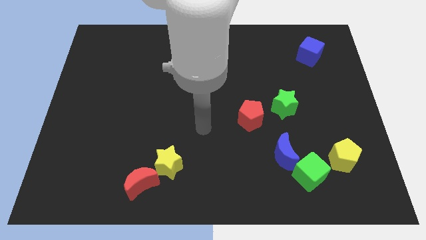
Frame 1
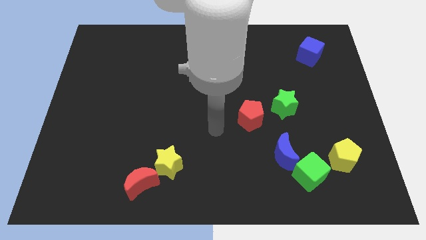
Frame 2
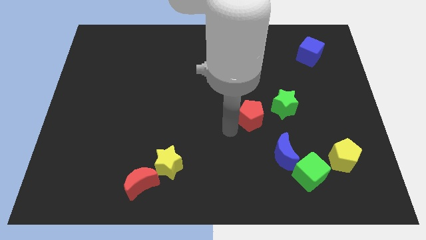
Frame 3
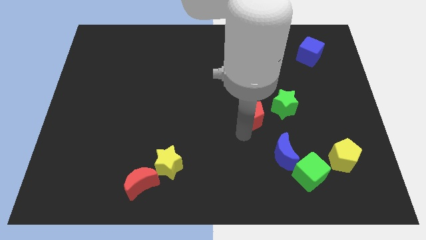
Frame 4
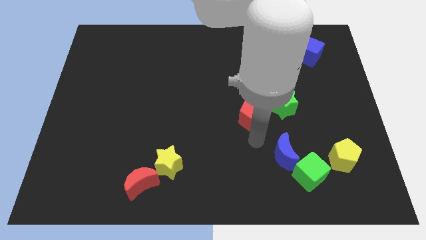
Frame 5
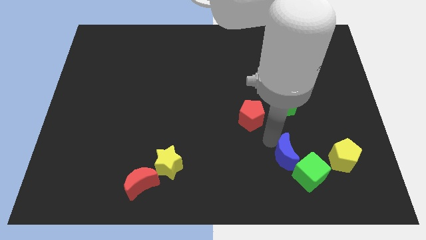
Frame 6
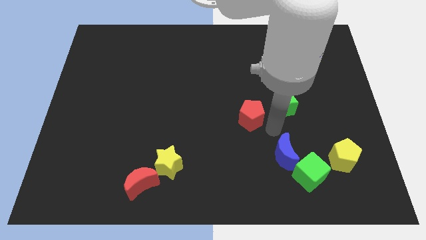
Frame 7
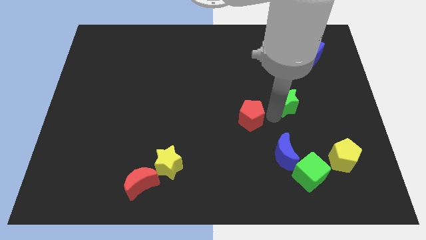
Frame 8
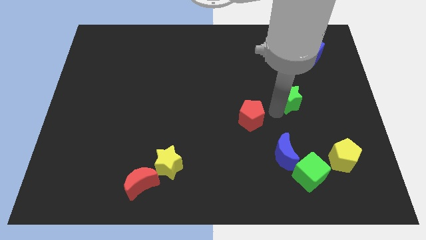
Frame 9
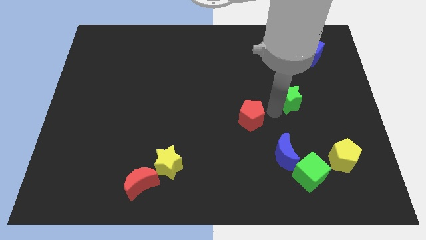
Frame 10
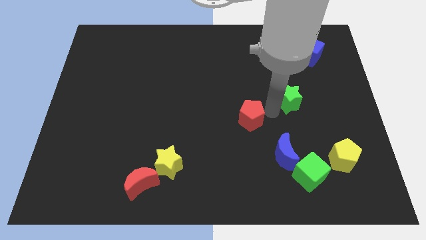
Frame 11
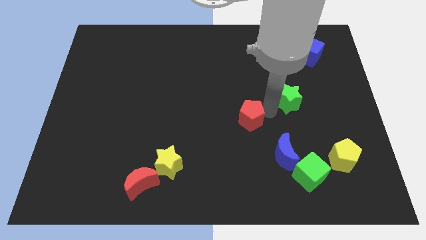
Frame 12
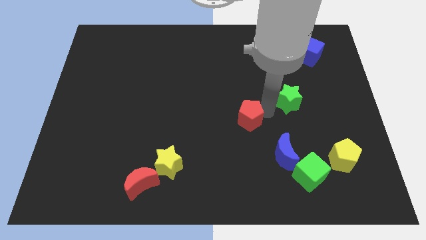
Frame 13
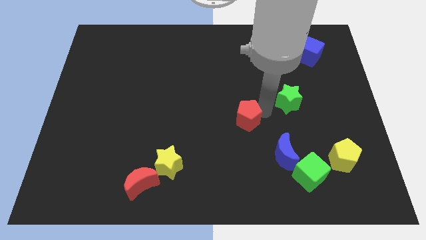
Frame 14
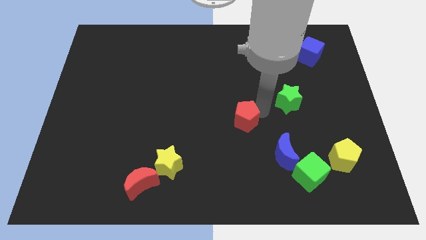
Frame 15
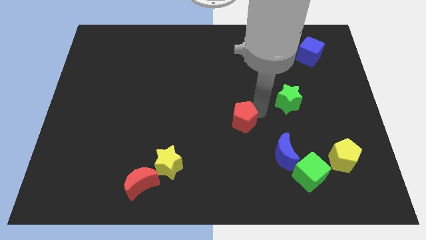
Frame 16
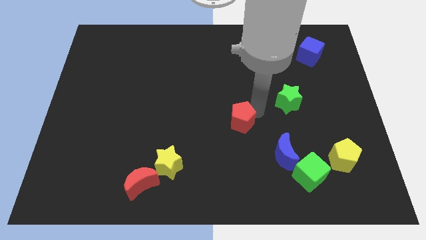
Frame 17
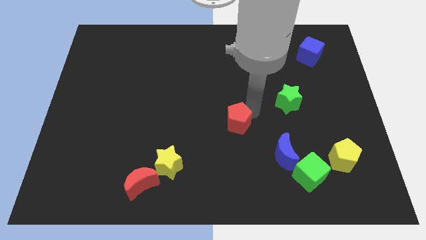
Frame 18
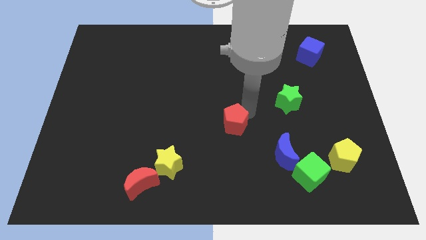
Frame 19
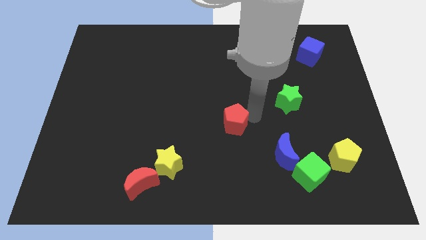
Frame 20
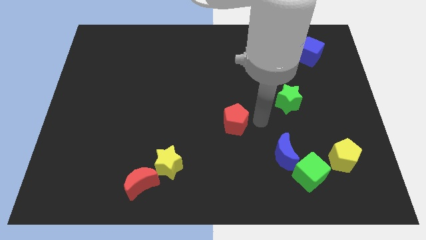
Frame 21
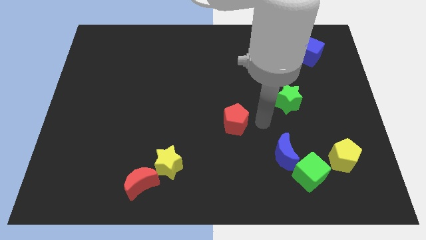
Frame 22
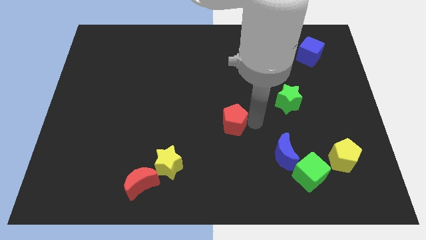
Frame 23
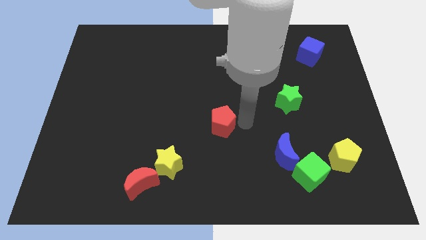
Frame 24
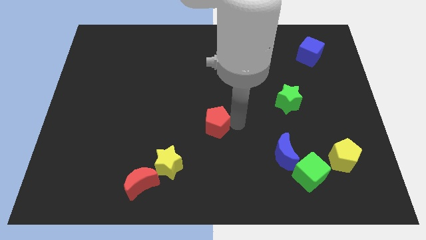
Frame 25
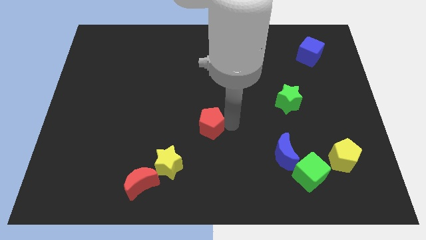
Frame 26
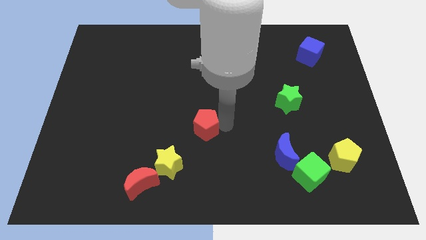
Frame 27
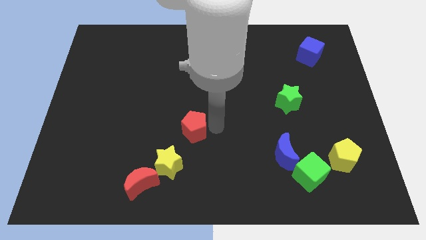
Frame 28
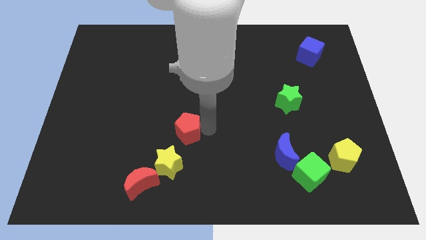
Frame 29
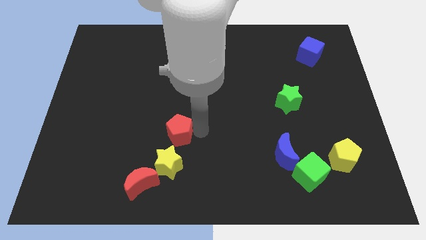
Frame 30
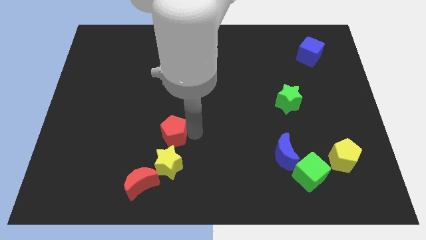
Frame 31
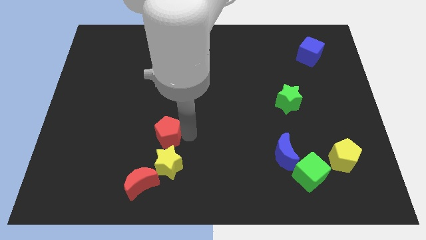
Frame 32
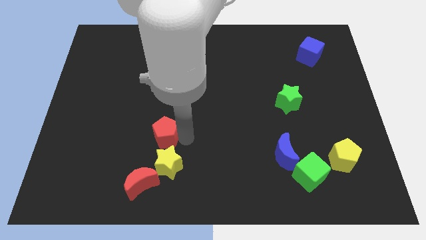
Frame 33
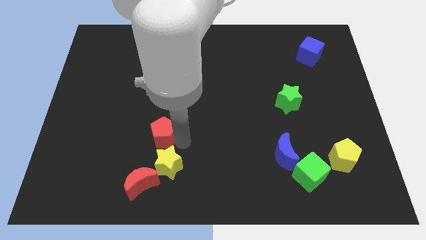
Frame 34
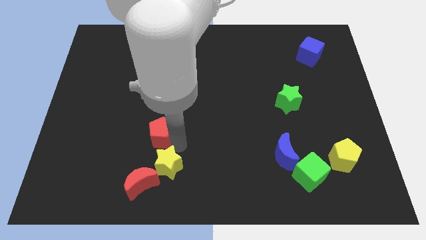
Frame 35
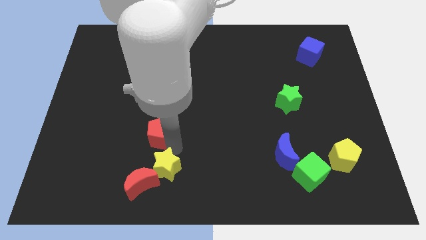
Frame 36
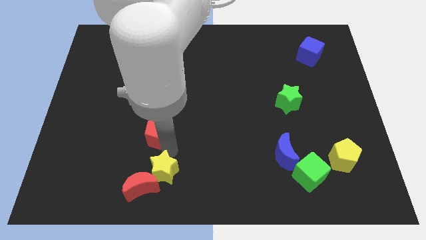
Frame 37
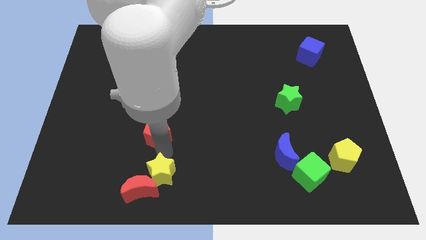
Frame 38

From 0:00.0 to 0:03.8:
slide the red pentagon to the left

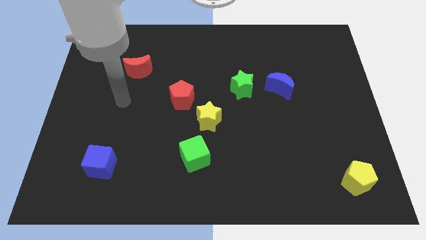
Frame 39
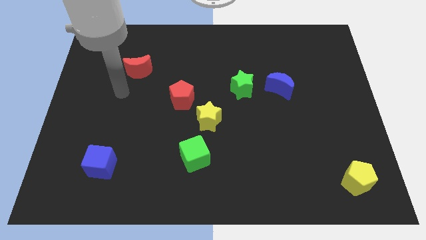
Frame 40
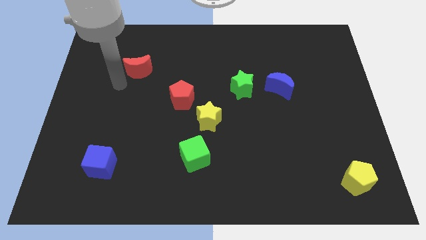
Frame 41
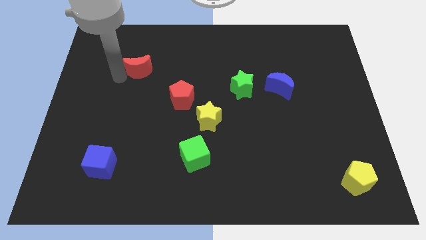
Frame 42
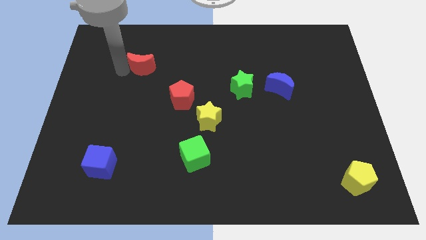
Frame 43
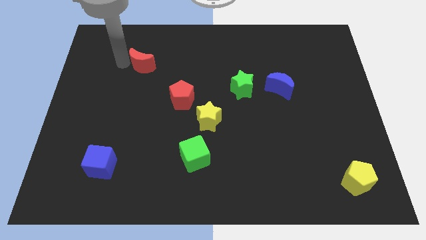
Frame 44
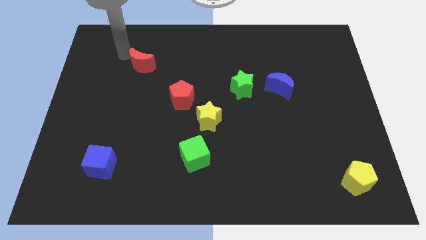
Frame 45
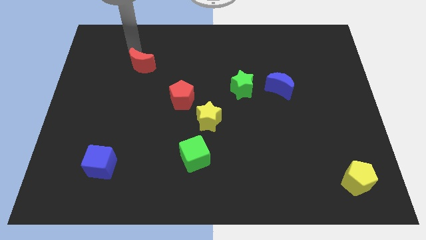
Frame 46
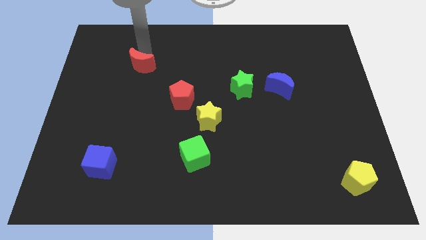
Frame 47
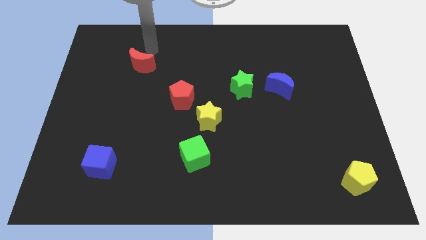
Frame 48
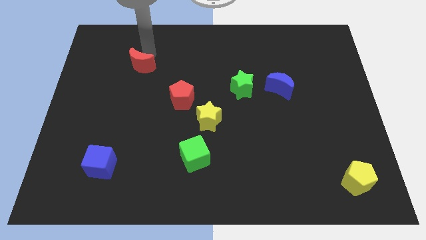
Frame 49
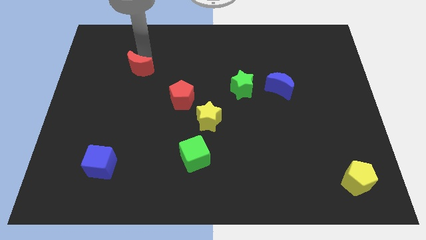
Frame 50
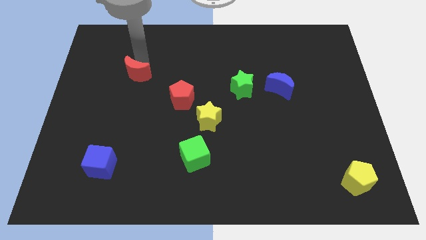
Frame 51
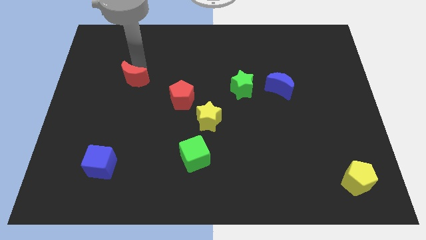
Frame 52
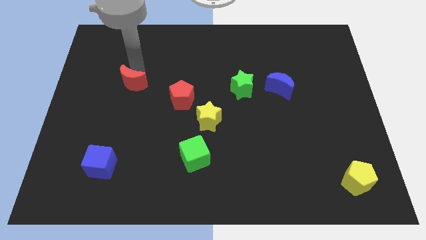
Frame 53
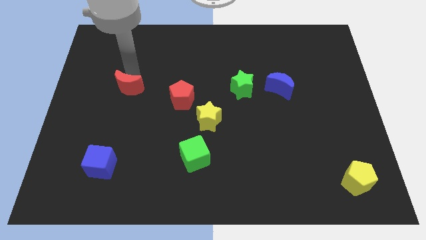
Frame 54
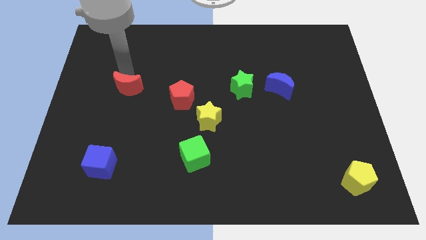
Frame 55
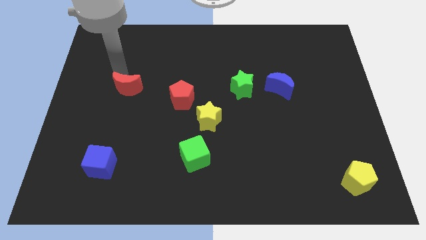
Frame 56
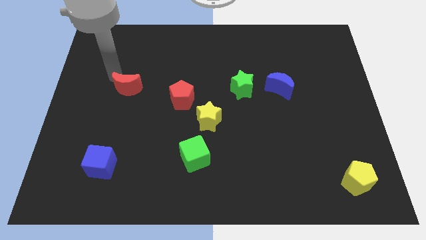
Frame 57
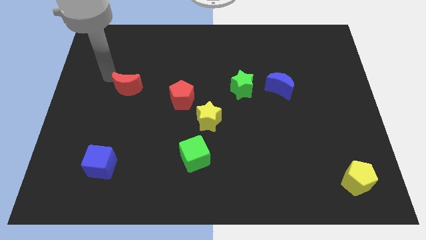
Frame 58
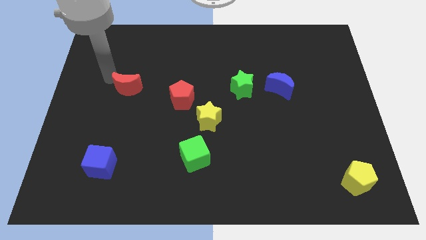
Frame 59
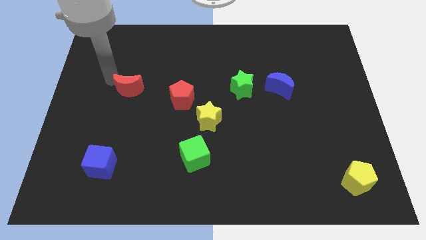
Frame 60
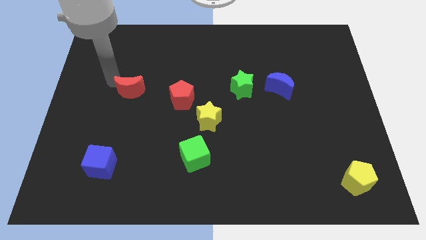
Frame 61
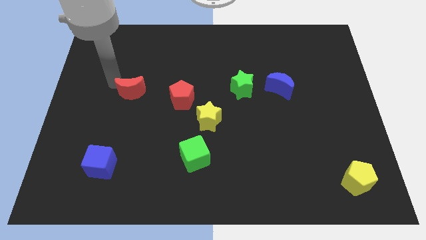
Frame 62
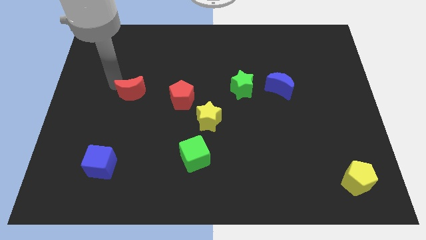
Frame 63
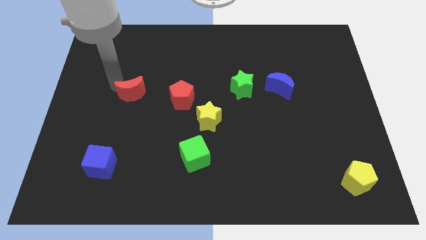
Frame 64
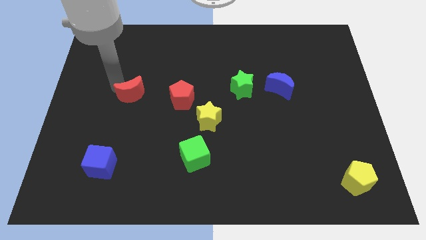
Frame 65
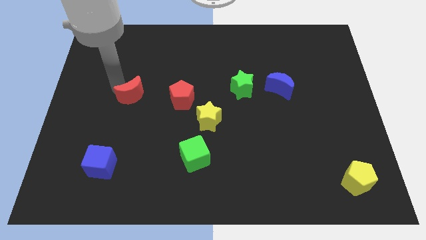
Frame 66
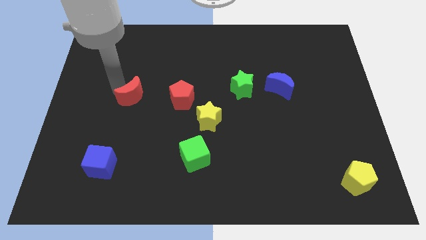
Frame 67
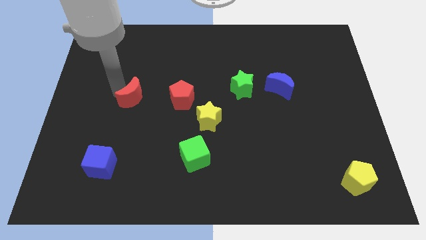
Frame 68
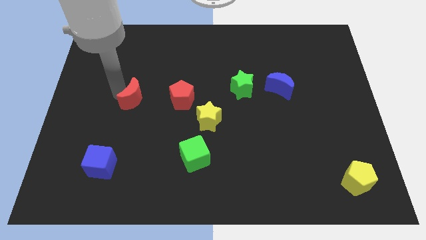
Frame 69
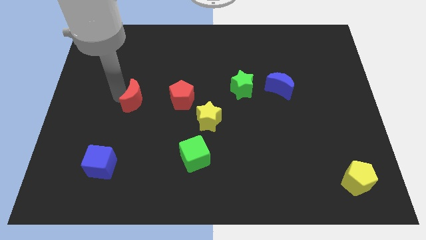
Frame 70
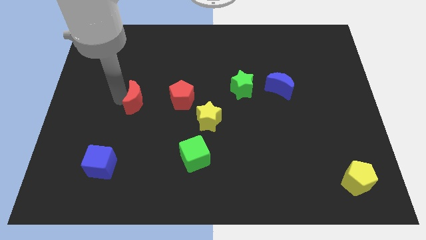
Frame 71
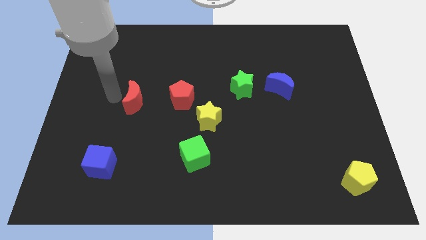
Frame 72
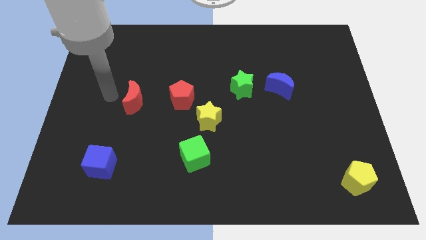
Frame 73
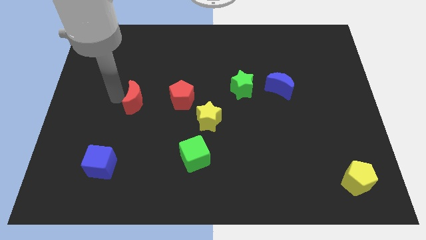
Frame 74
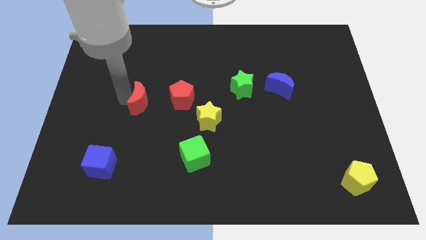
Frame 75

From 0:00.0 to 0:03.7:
slightly slide the red moon diagonally downwards and right

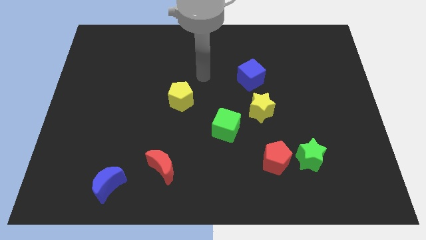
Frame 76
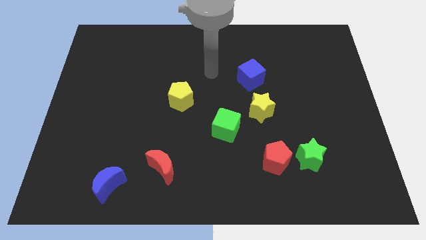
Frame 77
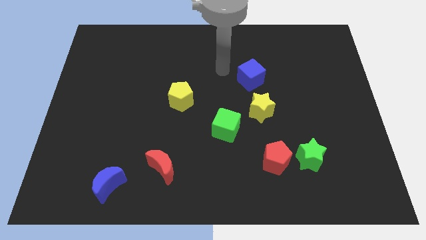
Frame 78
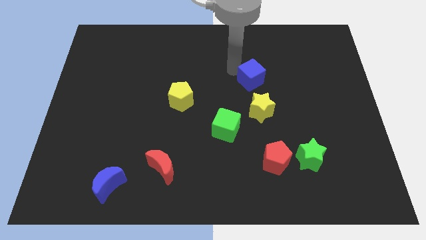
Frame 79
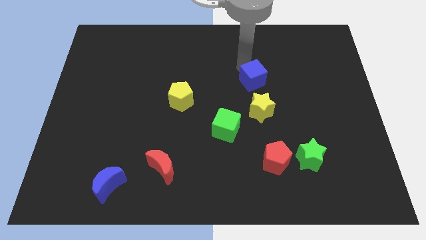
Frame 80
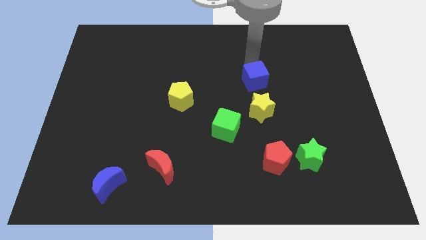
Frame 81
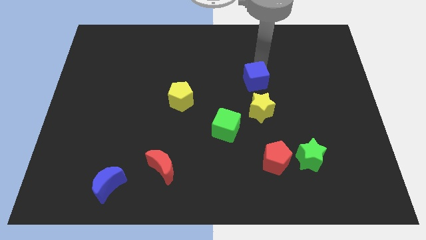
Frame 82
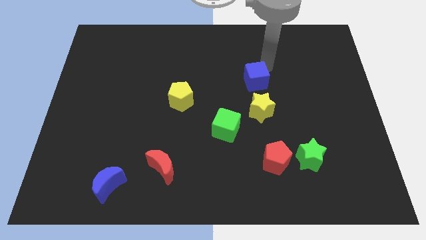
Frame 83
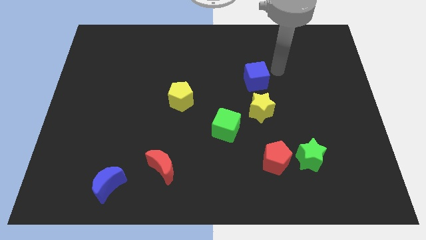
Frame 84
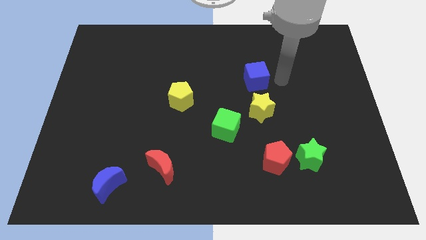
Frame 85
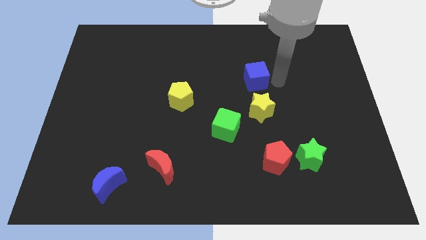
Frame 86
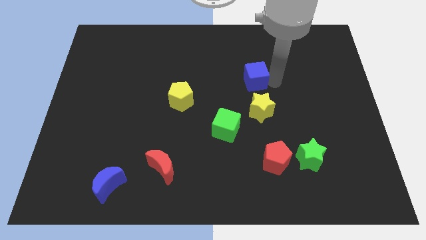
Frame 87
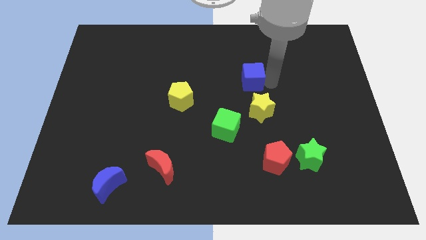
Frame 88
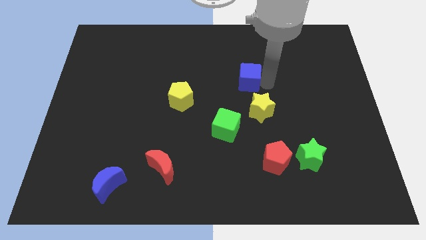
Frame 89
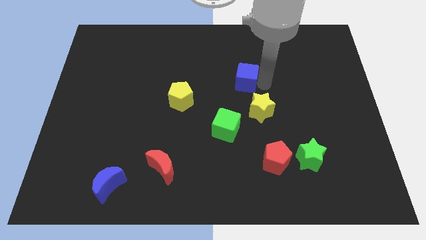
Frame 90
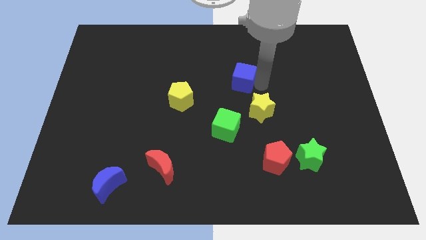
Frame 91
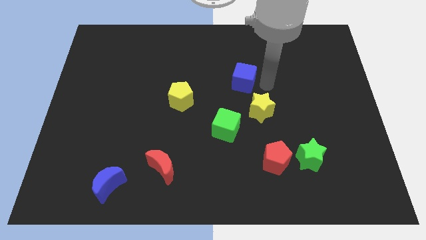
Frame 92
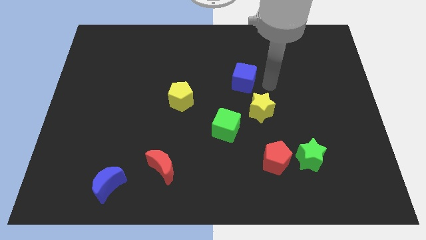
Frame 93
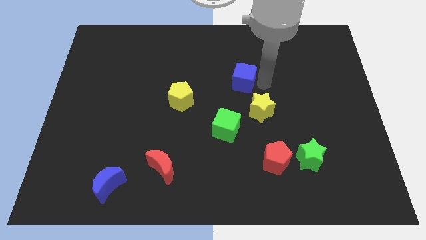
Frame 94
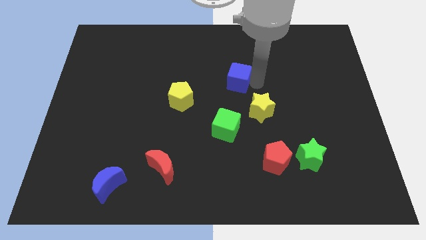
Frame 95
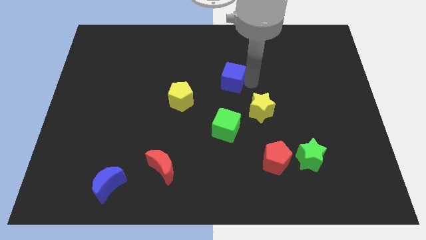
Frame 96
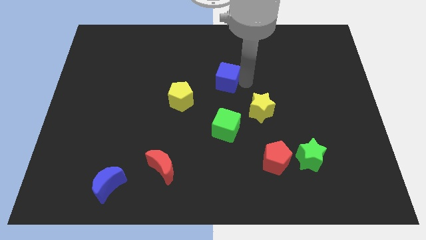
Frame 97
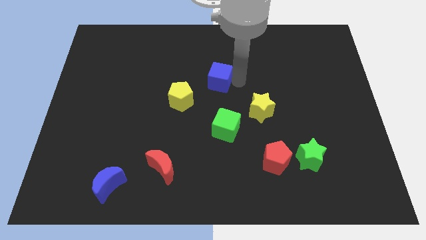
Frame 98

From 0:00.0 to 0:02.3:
slightly push the blue cube left
